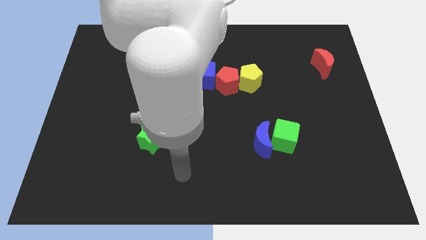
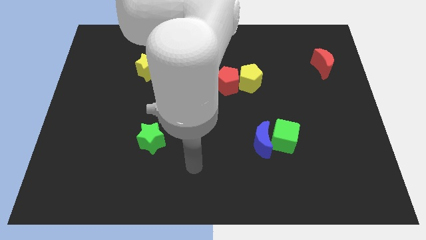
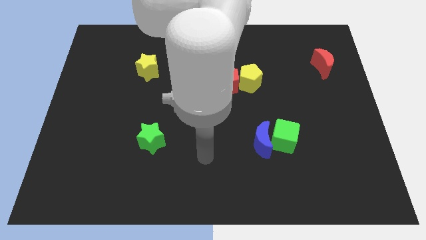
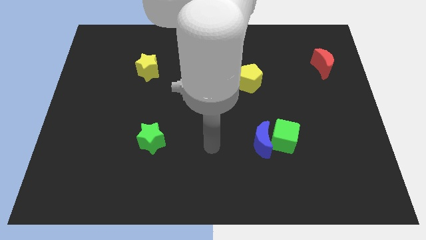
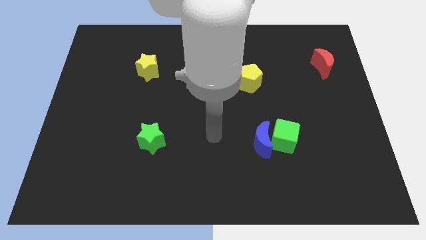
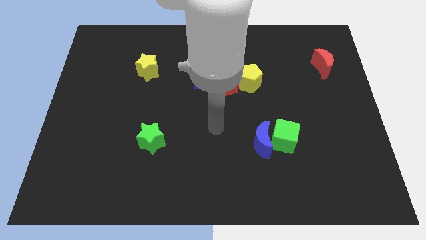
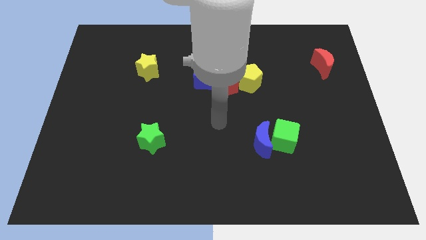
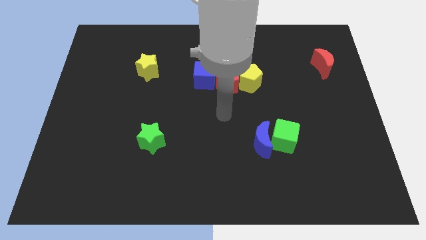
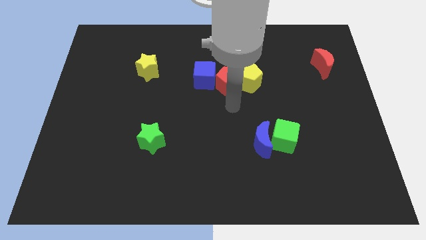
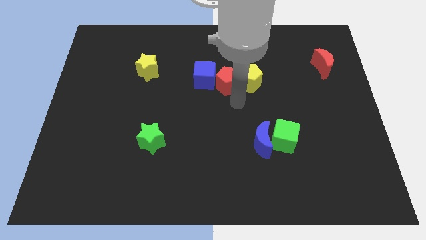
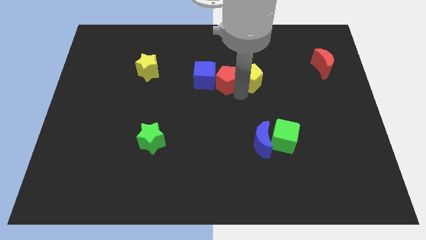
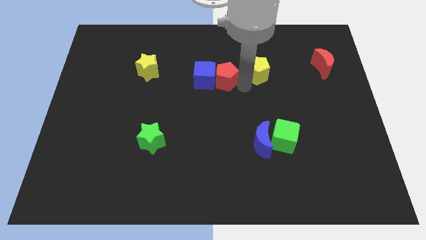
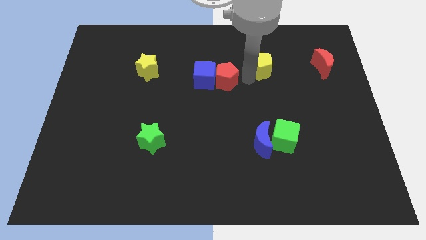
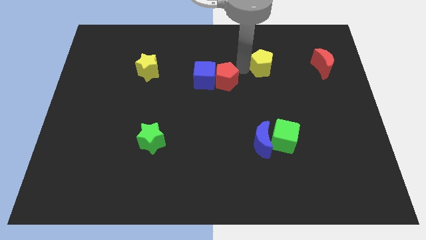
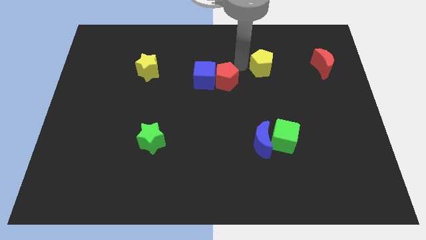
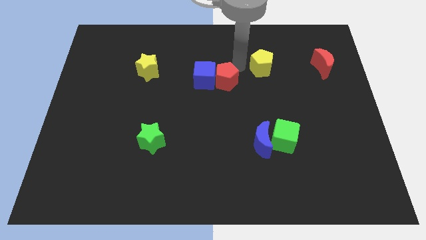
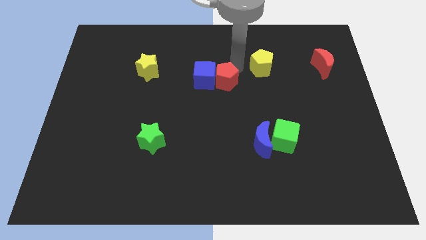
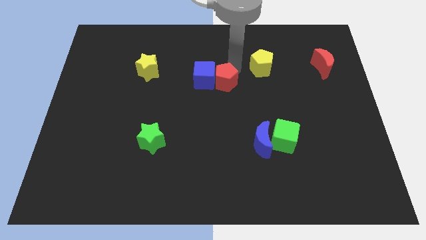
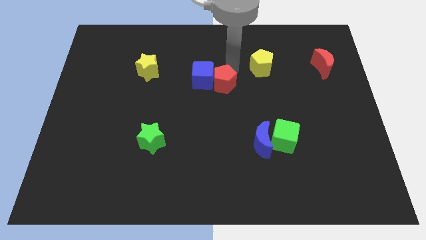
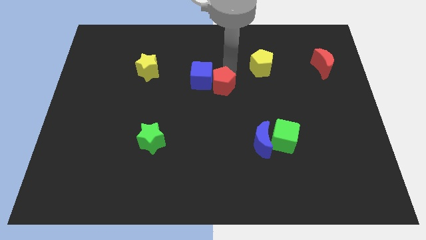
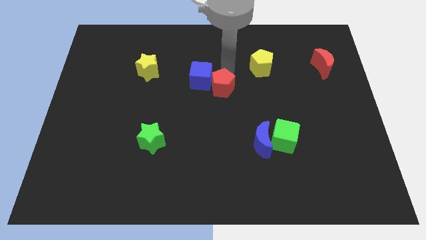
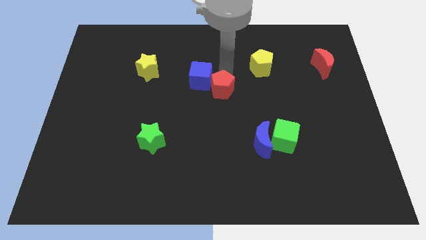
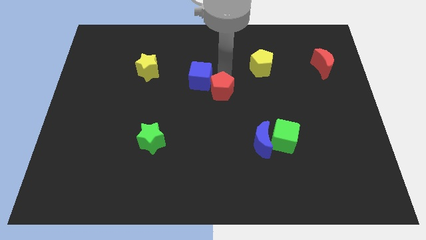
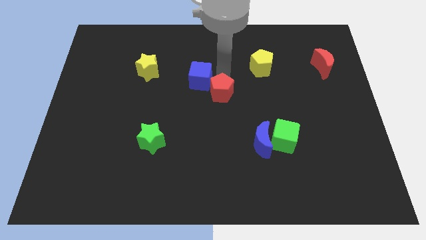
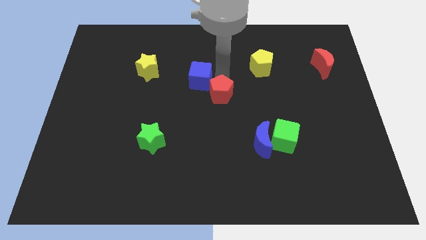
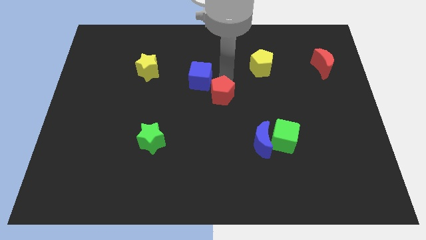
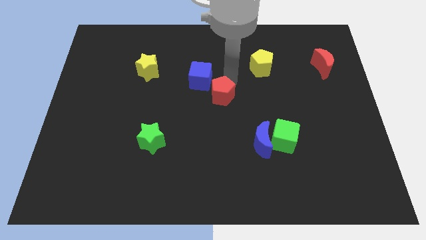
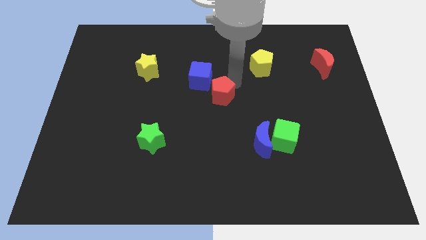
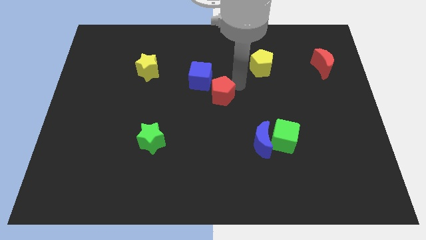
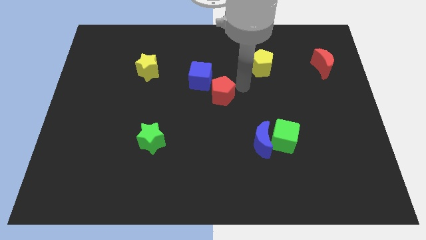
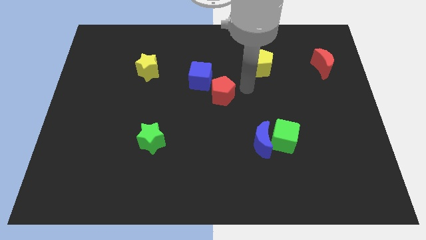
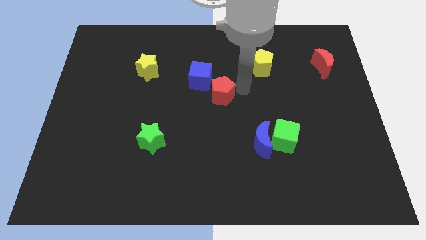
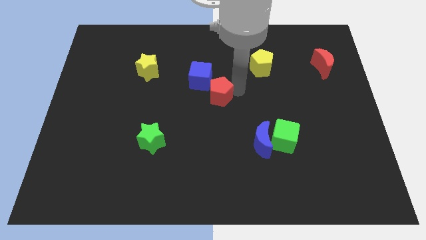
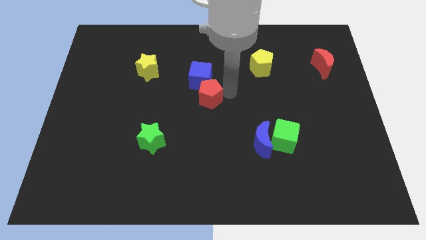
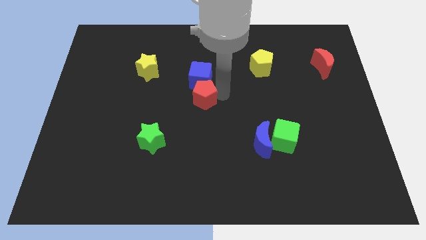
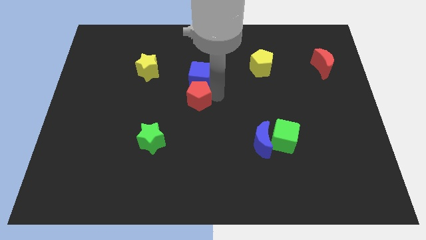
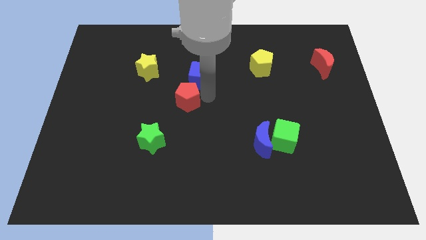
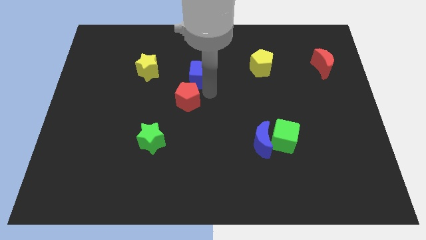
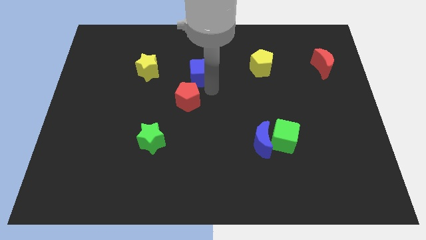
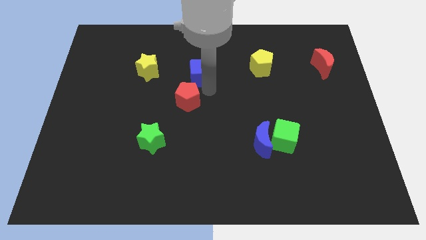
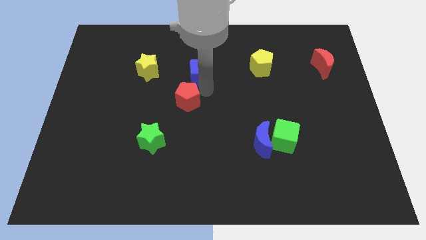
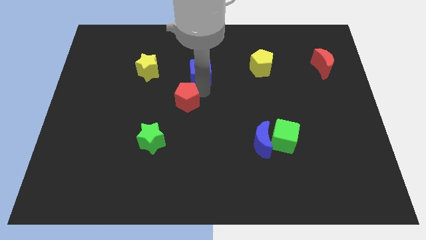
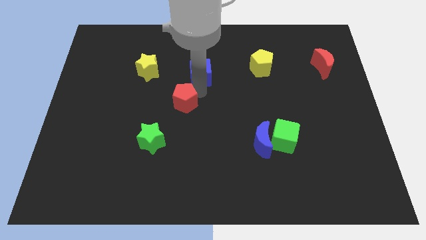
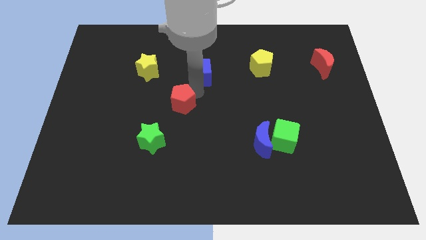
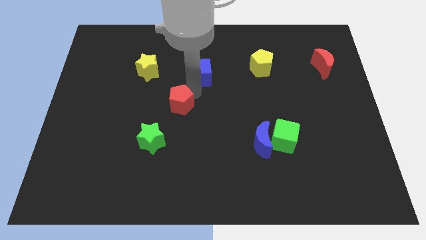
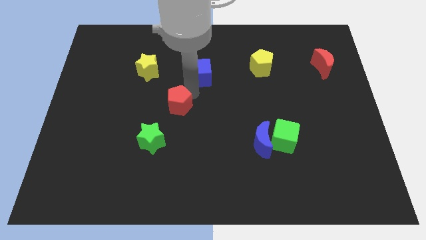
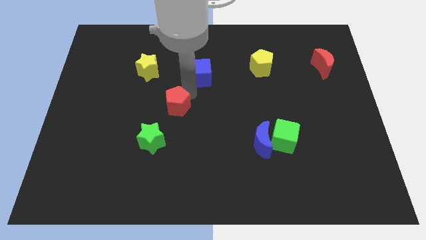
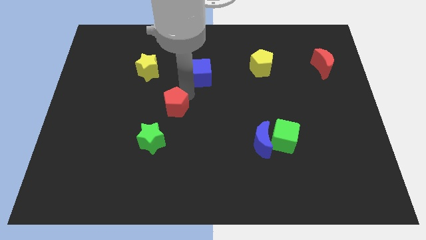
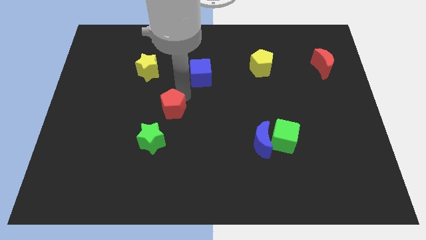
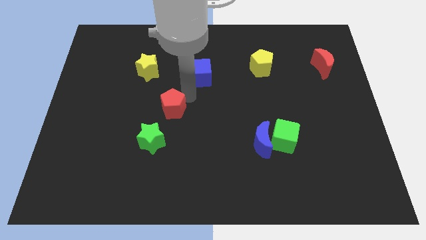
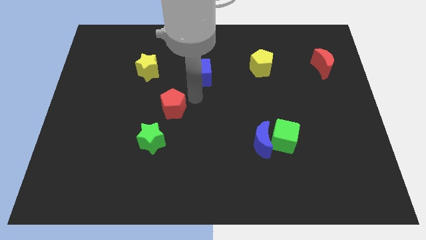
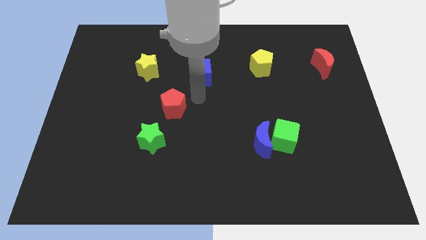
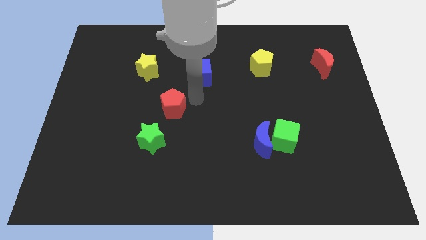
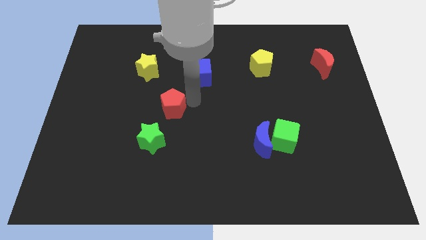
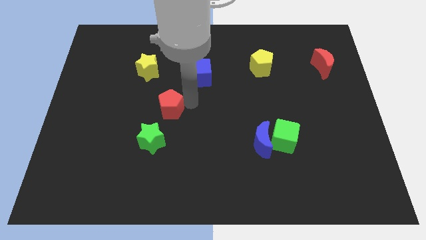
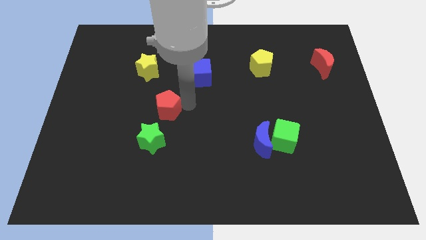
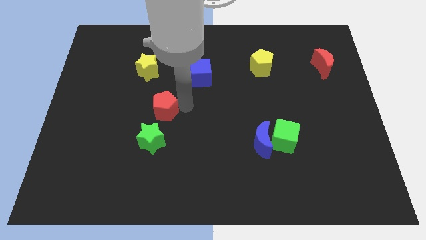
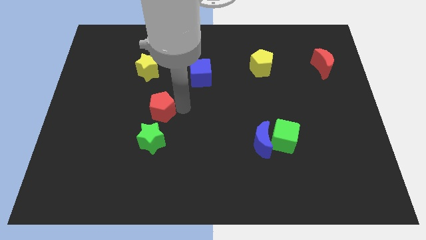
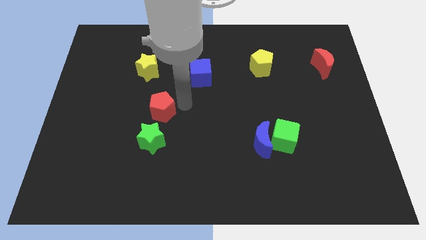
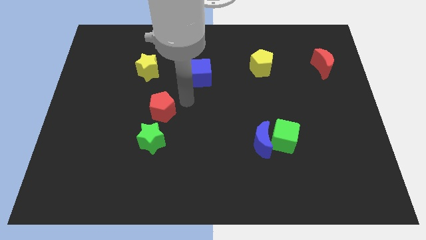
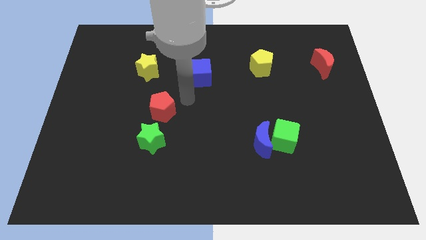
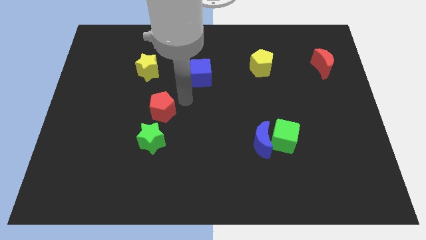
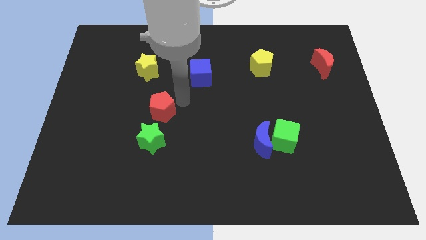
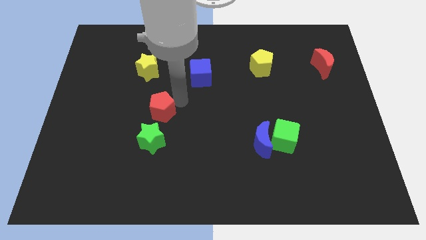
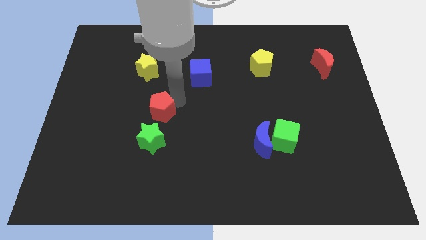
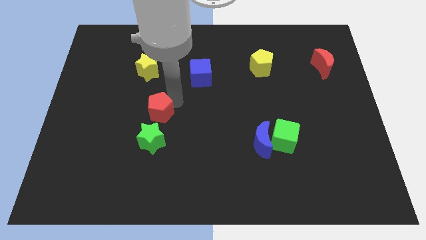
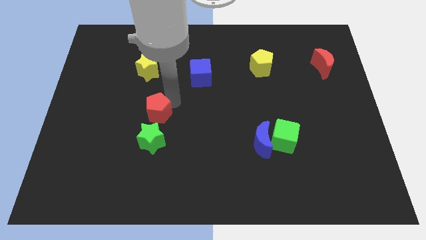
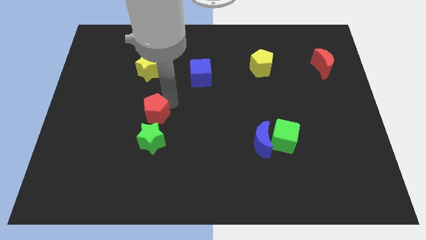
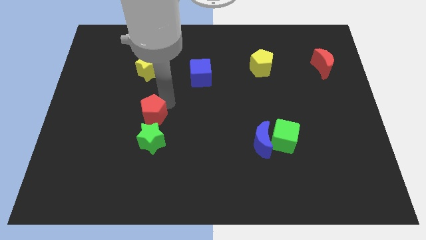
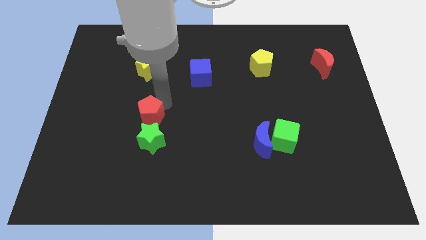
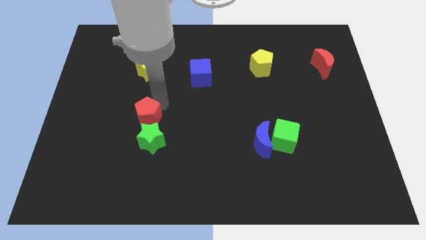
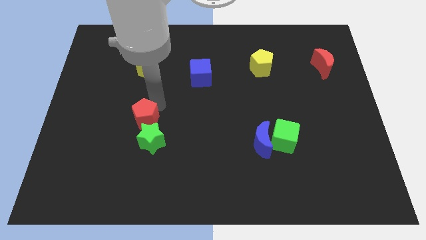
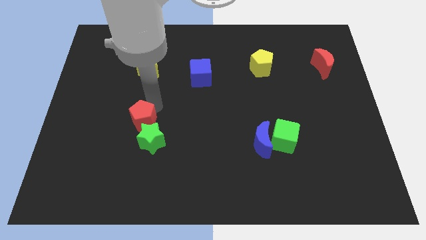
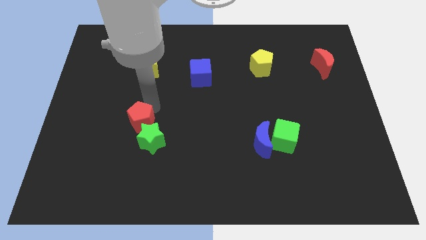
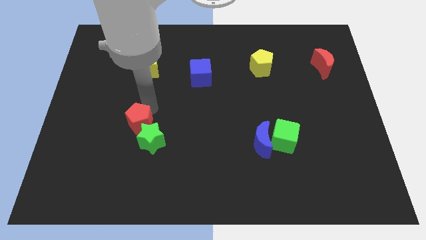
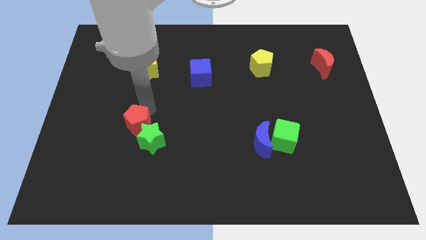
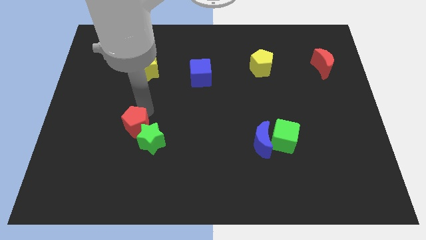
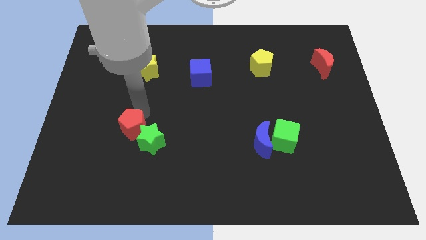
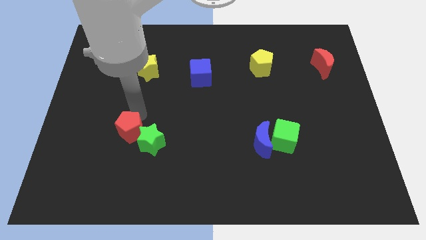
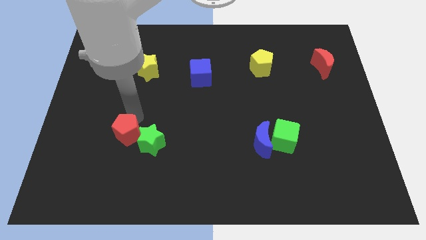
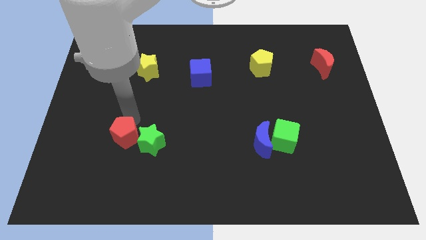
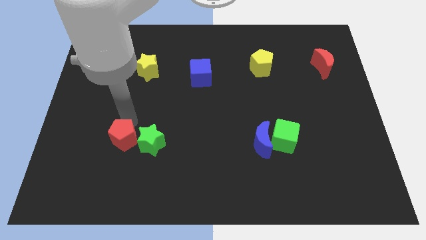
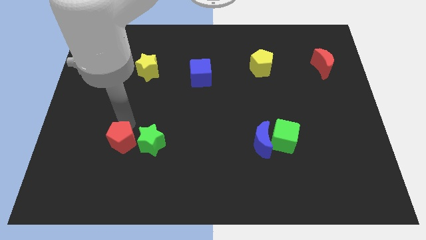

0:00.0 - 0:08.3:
move the red pentagon diagonally down and to the left of the green star
